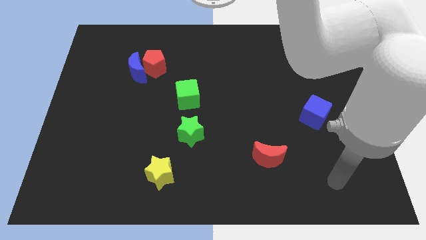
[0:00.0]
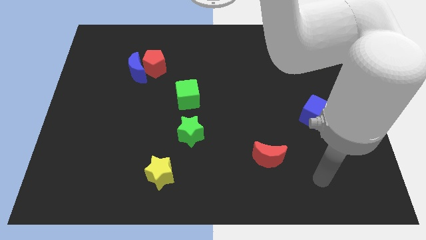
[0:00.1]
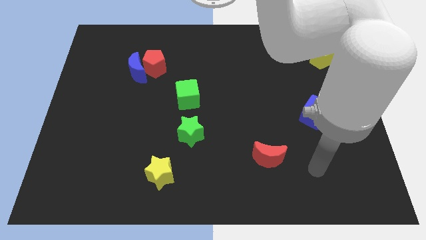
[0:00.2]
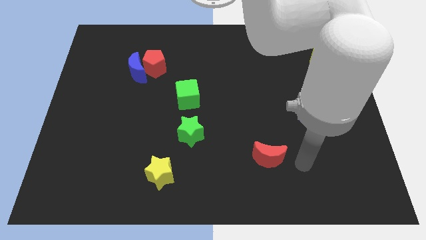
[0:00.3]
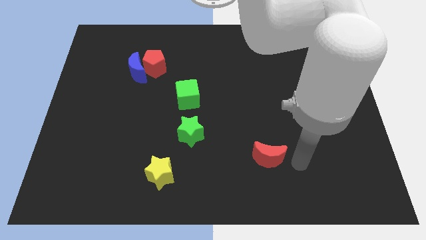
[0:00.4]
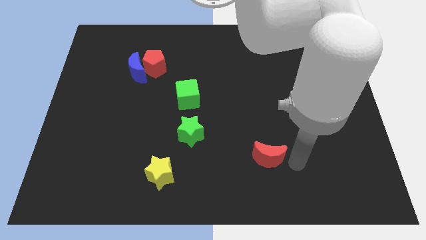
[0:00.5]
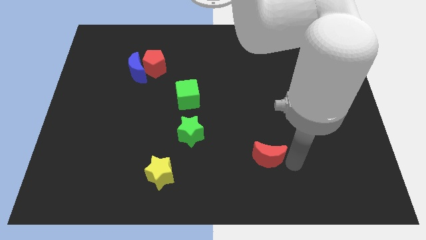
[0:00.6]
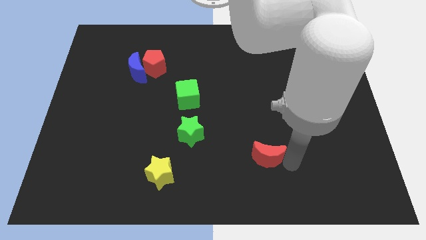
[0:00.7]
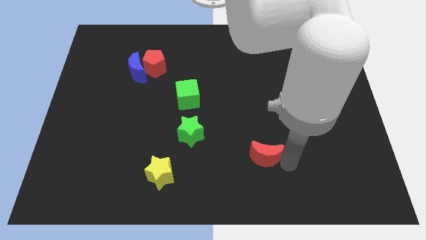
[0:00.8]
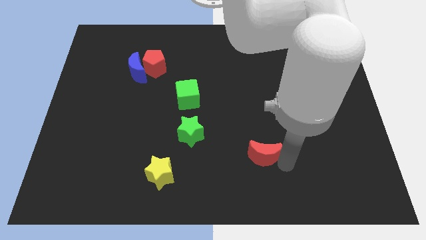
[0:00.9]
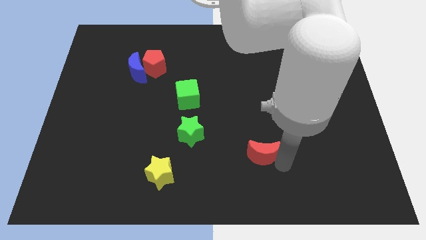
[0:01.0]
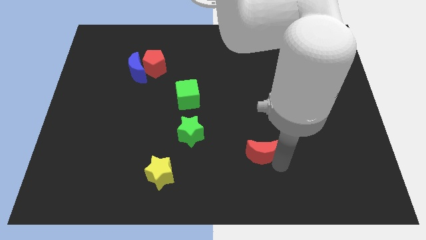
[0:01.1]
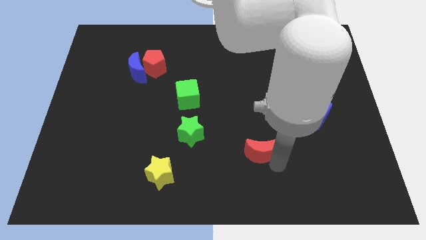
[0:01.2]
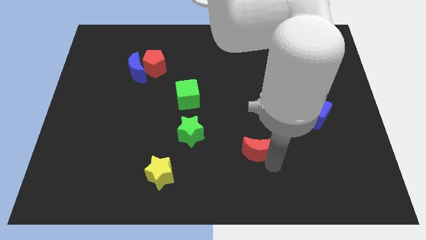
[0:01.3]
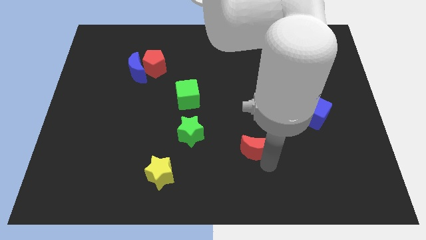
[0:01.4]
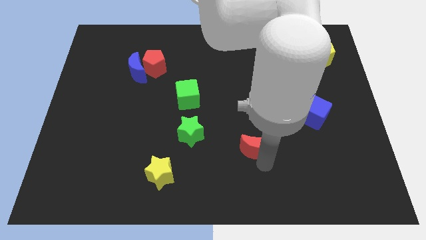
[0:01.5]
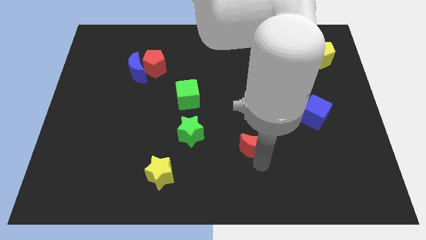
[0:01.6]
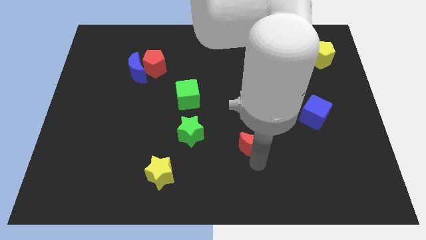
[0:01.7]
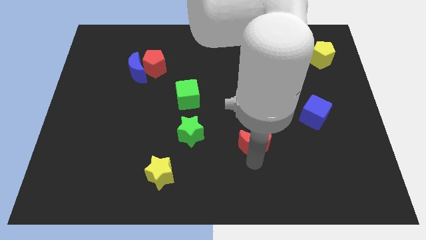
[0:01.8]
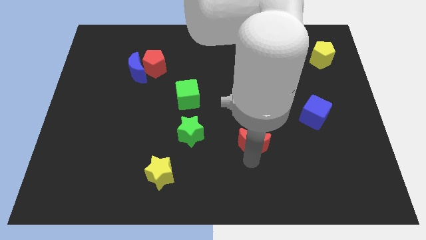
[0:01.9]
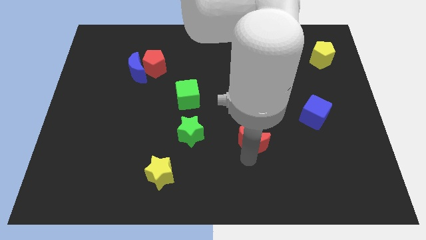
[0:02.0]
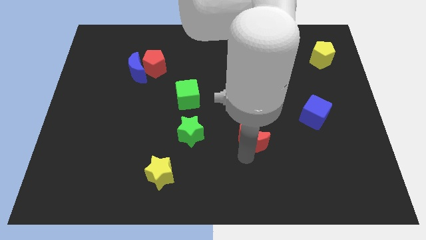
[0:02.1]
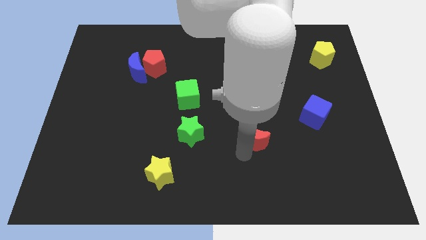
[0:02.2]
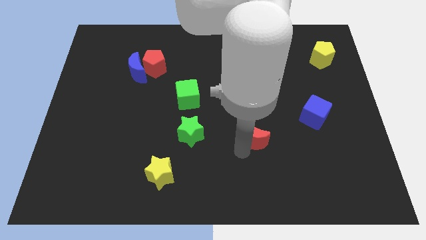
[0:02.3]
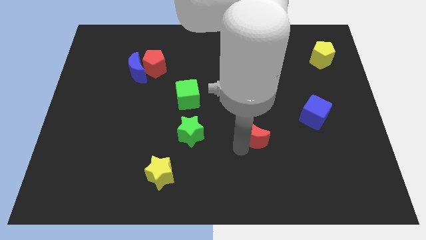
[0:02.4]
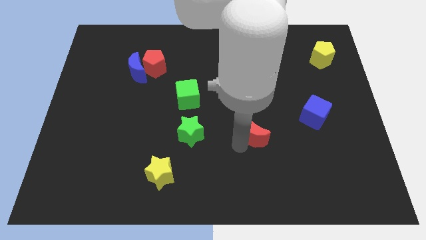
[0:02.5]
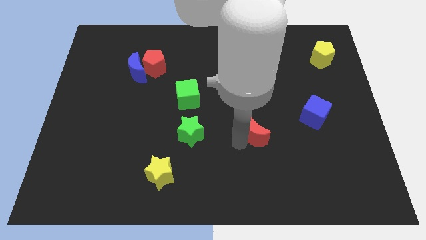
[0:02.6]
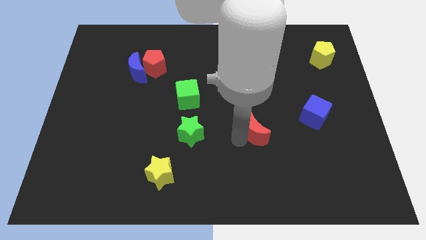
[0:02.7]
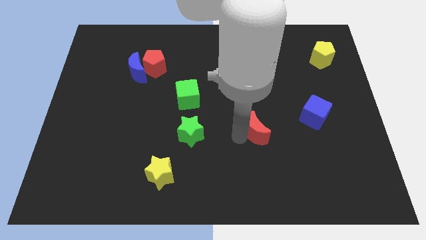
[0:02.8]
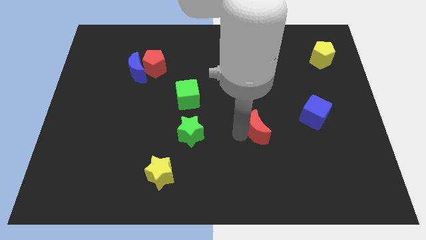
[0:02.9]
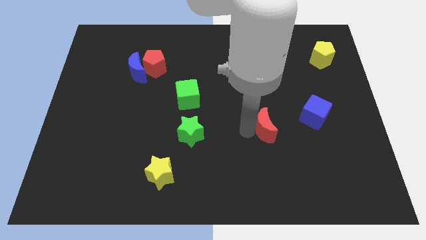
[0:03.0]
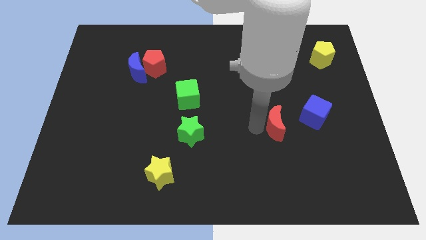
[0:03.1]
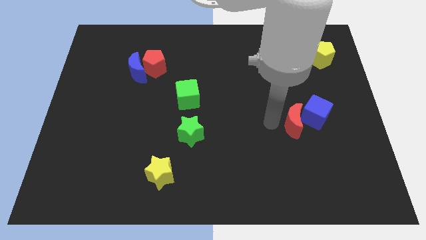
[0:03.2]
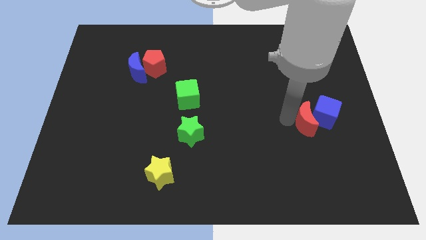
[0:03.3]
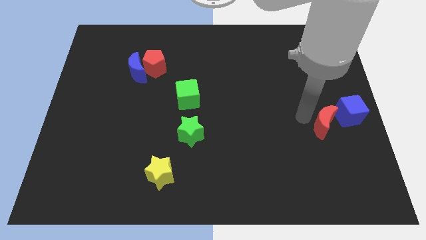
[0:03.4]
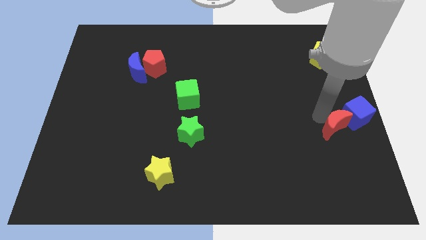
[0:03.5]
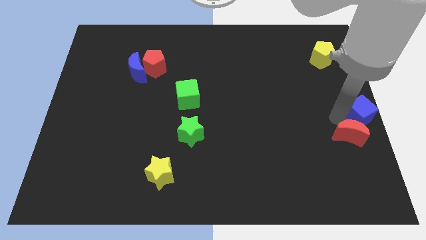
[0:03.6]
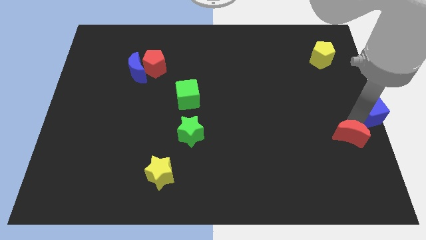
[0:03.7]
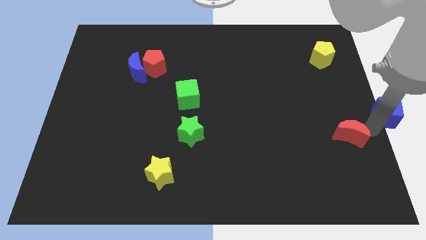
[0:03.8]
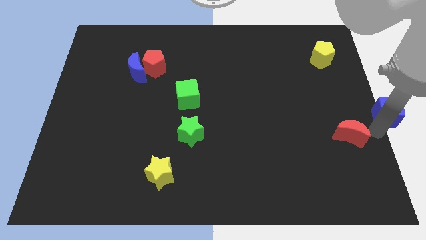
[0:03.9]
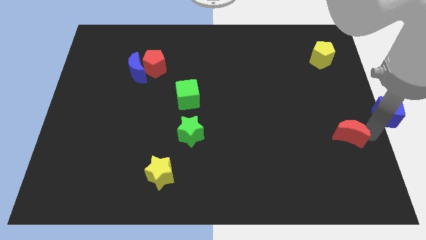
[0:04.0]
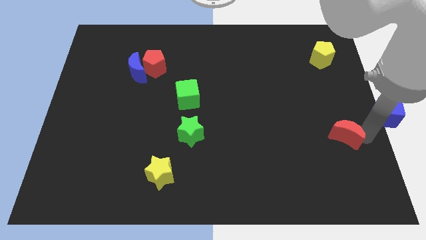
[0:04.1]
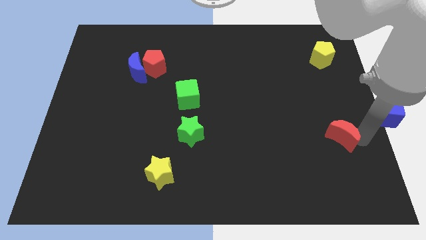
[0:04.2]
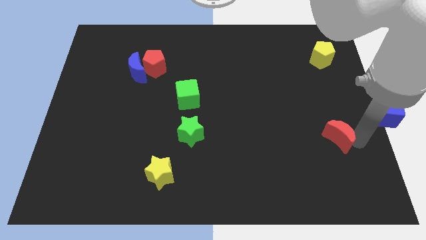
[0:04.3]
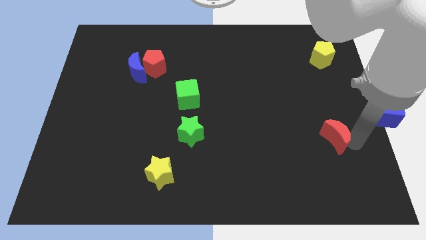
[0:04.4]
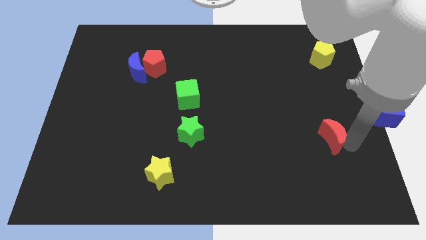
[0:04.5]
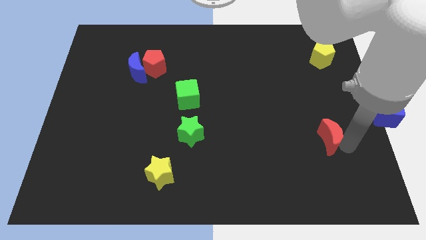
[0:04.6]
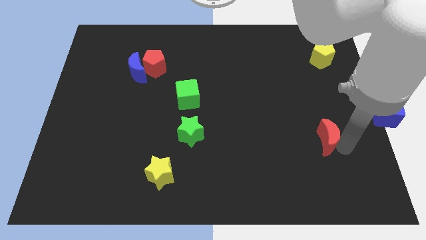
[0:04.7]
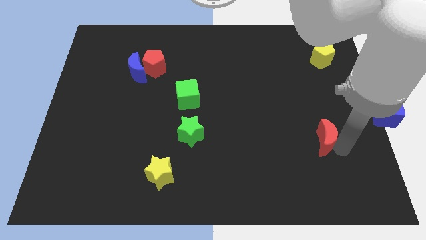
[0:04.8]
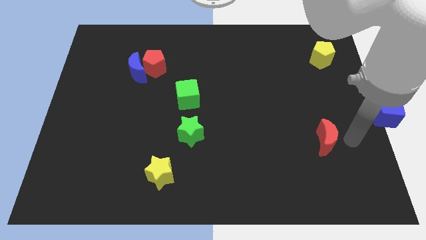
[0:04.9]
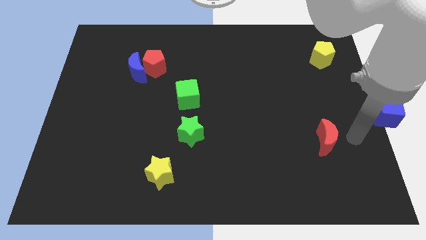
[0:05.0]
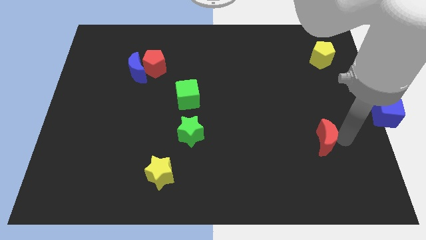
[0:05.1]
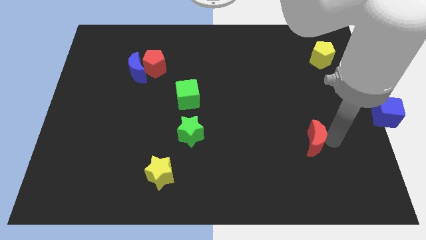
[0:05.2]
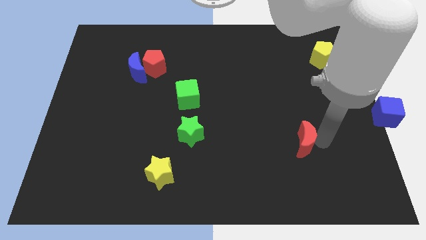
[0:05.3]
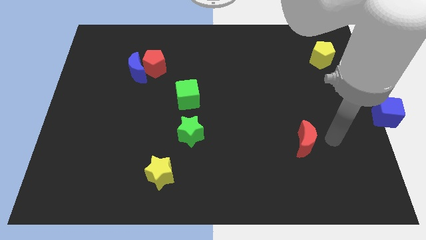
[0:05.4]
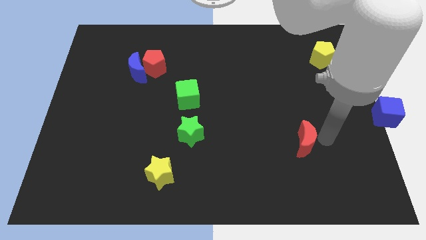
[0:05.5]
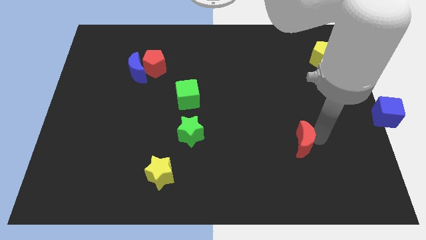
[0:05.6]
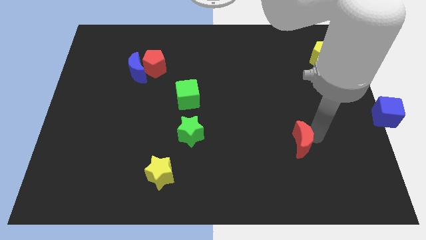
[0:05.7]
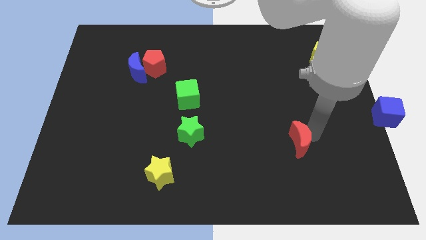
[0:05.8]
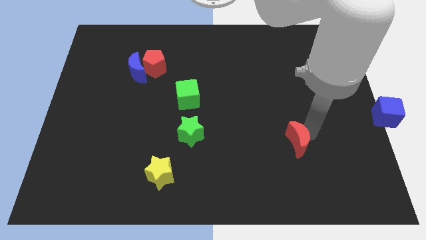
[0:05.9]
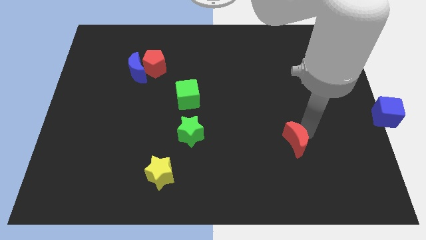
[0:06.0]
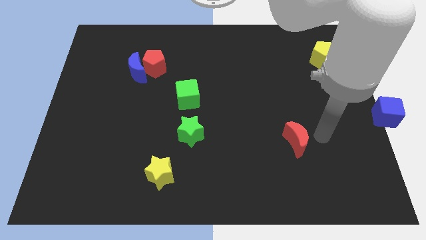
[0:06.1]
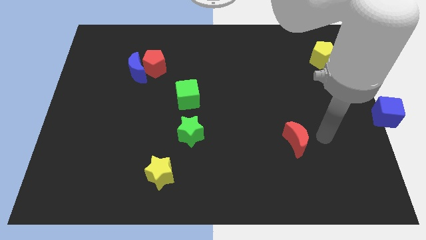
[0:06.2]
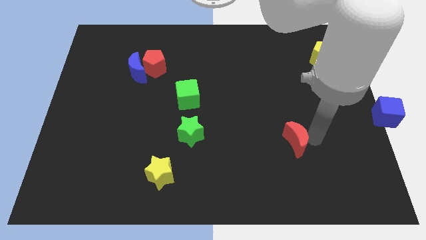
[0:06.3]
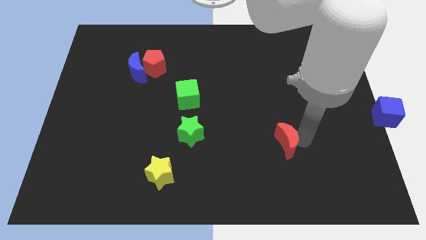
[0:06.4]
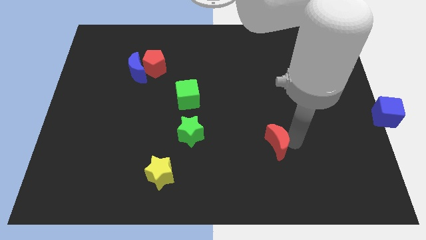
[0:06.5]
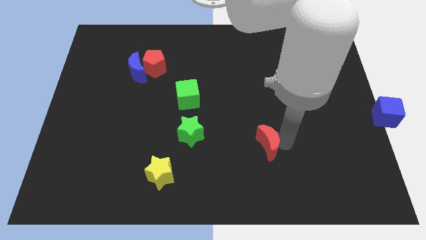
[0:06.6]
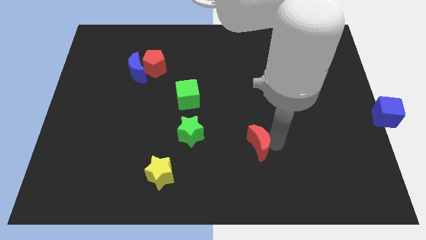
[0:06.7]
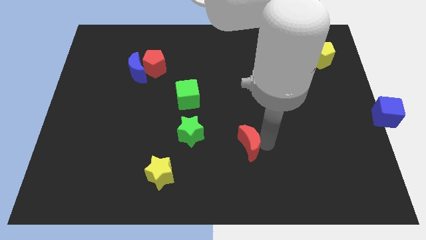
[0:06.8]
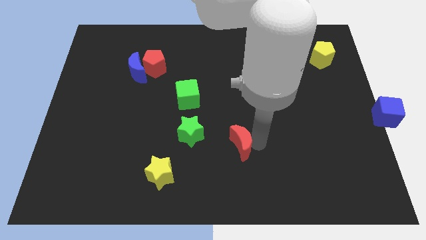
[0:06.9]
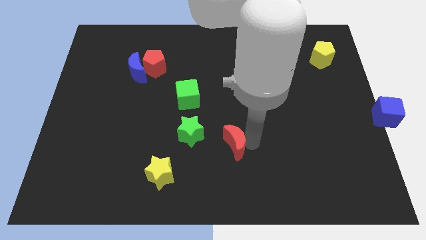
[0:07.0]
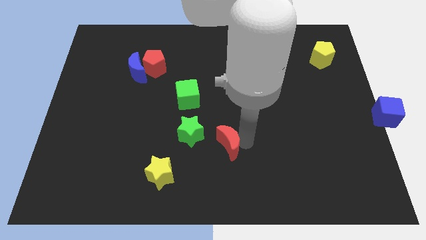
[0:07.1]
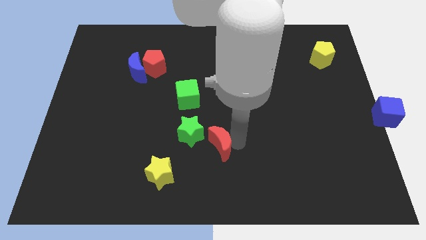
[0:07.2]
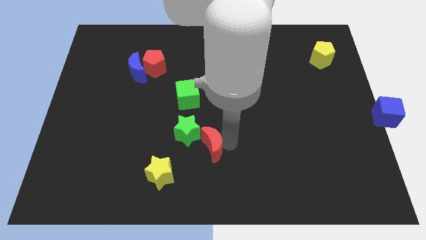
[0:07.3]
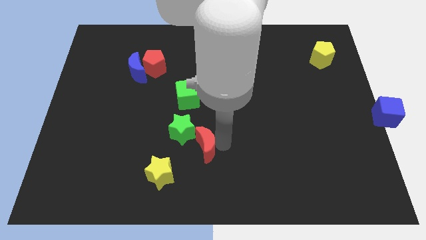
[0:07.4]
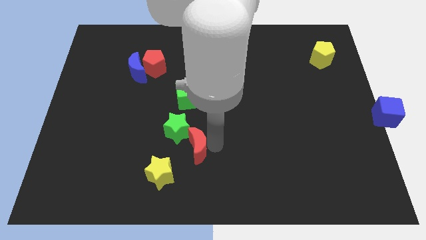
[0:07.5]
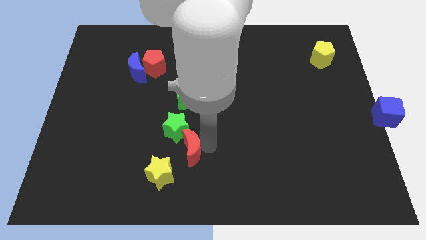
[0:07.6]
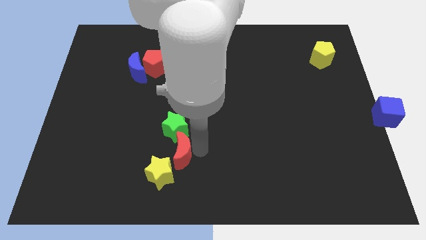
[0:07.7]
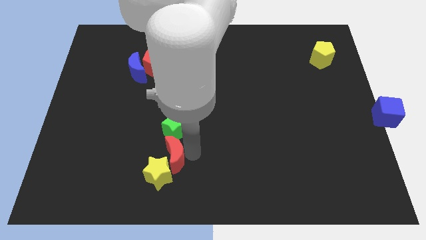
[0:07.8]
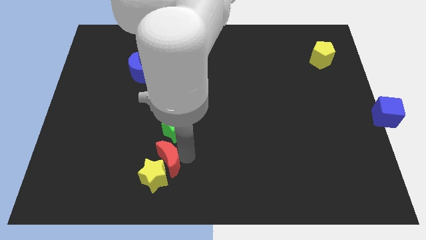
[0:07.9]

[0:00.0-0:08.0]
slide the red moon to the left

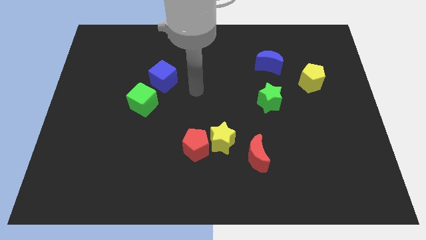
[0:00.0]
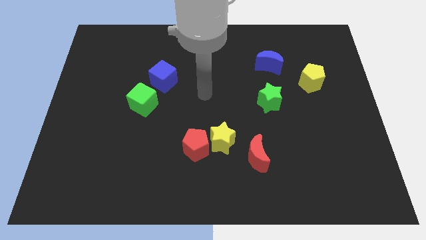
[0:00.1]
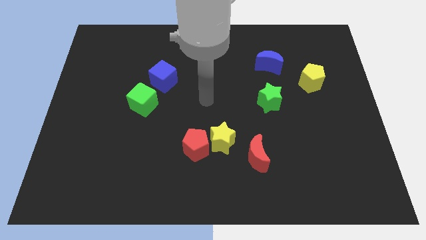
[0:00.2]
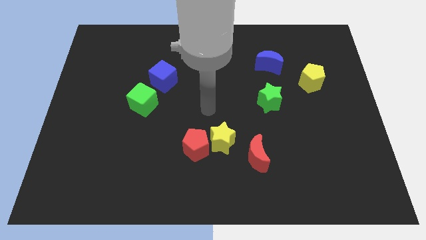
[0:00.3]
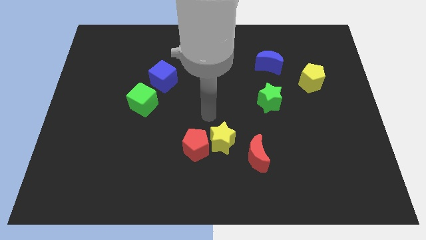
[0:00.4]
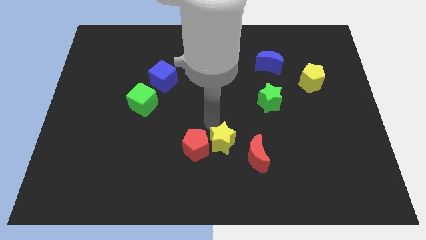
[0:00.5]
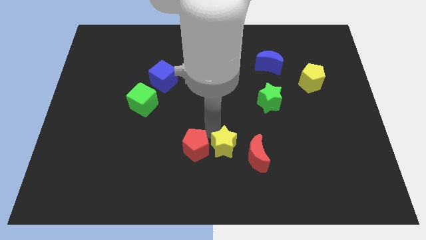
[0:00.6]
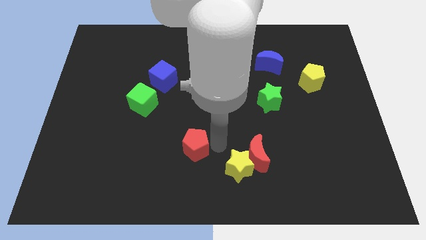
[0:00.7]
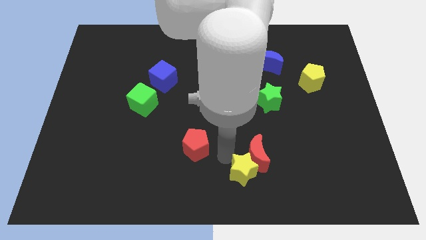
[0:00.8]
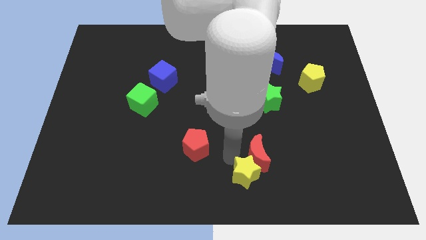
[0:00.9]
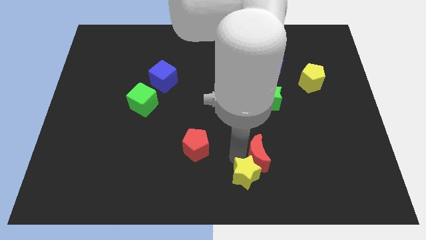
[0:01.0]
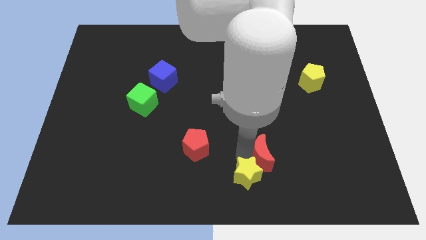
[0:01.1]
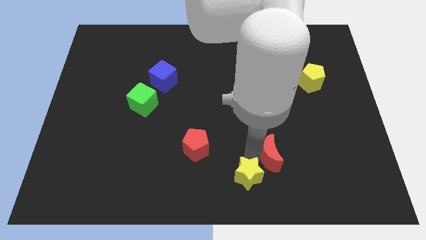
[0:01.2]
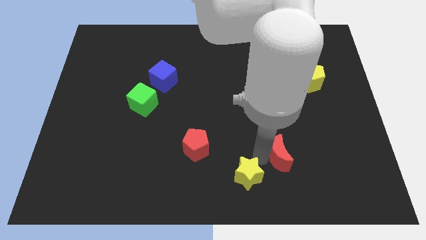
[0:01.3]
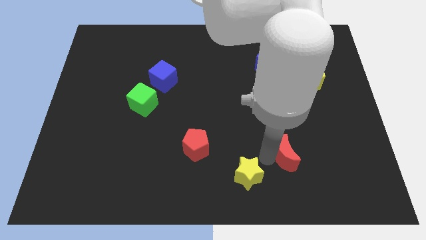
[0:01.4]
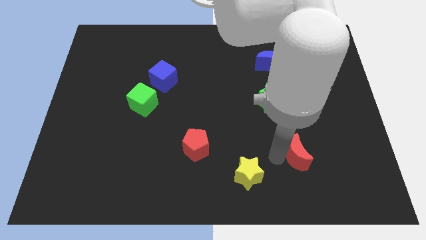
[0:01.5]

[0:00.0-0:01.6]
move the red moon slightly right
